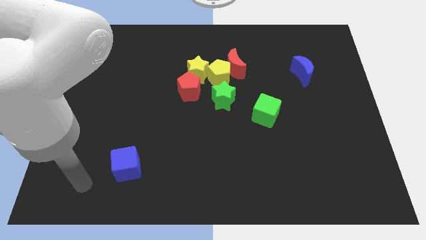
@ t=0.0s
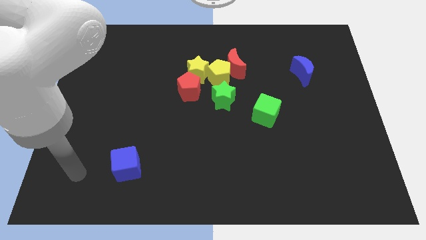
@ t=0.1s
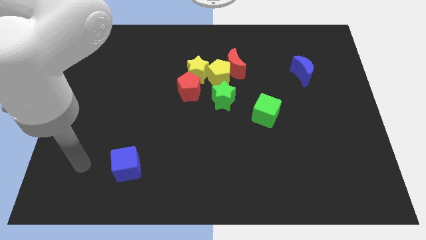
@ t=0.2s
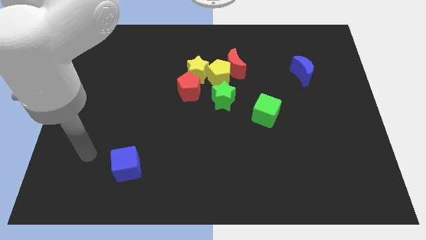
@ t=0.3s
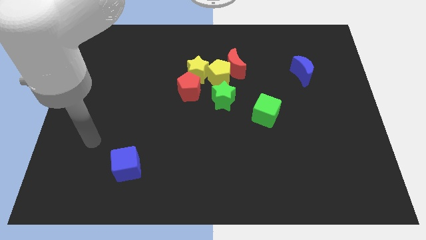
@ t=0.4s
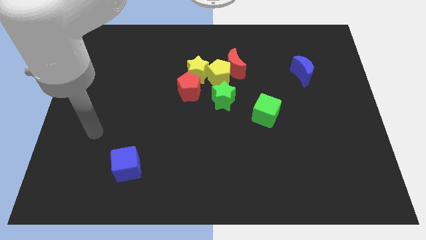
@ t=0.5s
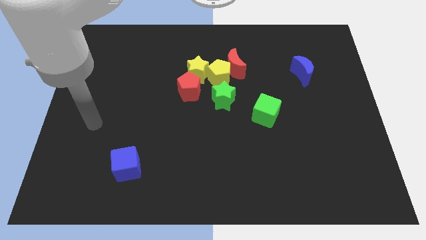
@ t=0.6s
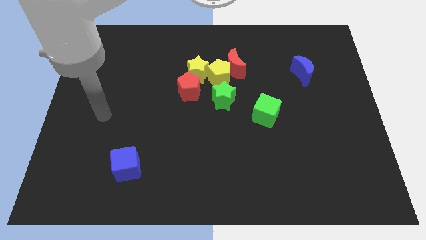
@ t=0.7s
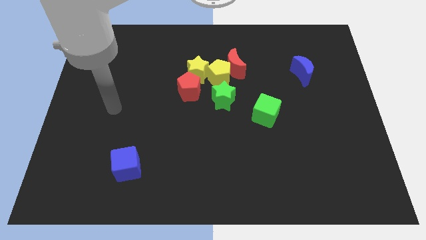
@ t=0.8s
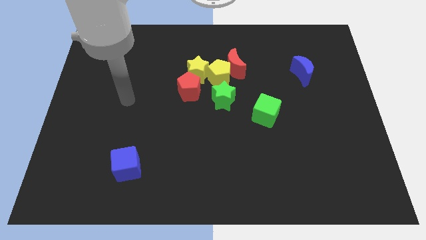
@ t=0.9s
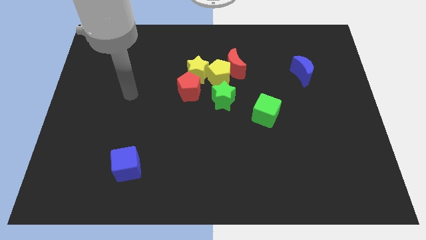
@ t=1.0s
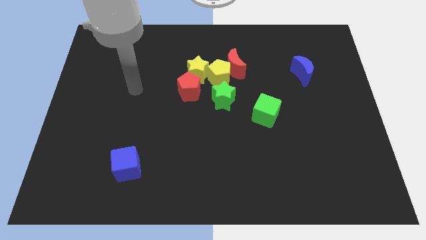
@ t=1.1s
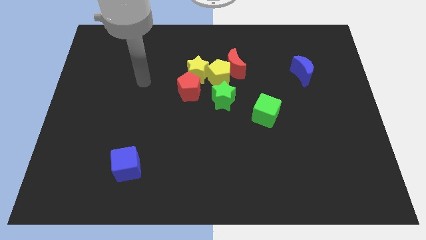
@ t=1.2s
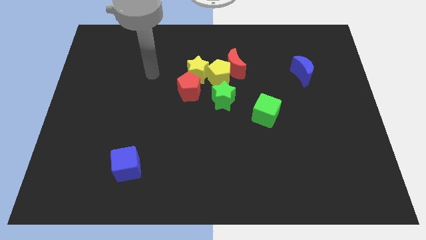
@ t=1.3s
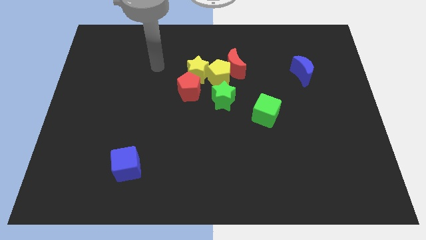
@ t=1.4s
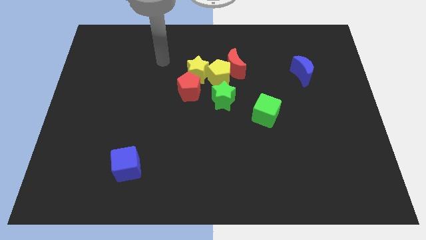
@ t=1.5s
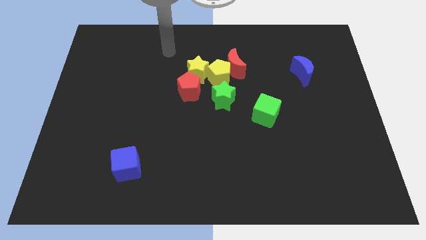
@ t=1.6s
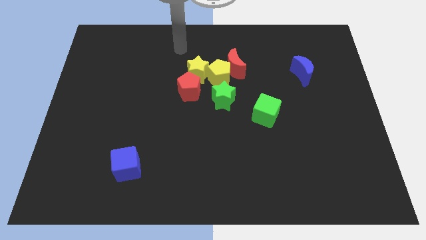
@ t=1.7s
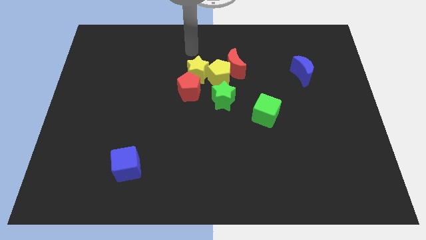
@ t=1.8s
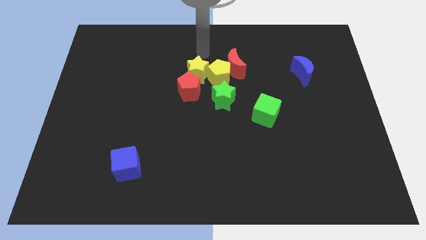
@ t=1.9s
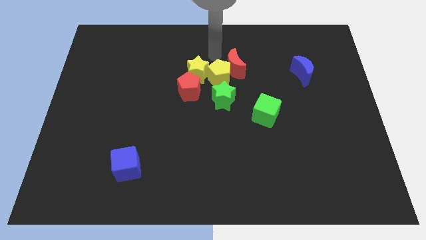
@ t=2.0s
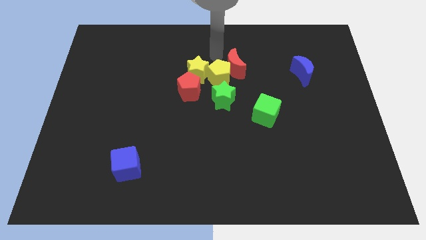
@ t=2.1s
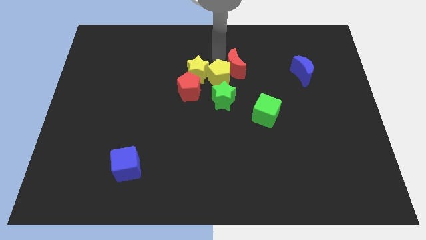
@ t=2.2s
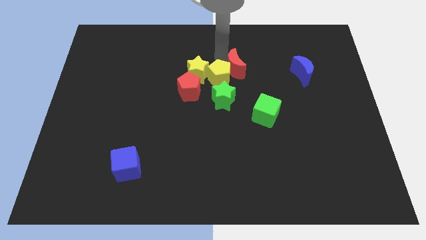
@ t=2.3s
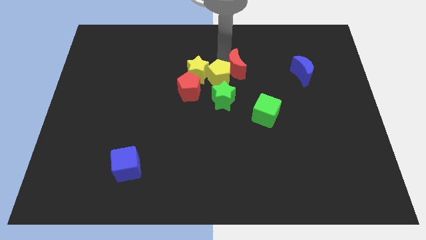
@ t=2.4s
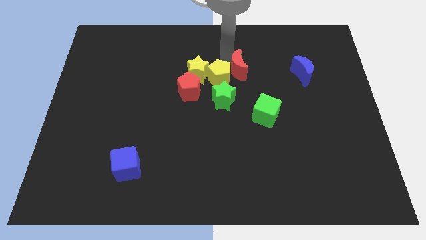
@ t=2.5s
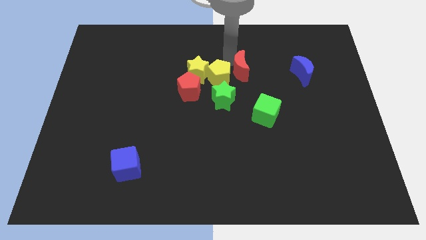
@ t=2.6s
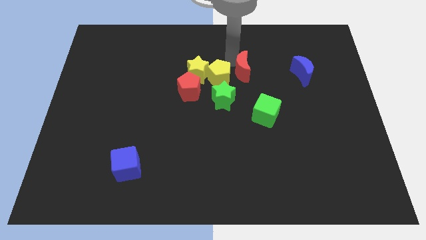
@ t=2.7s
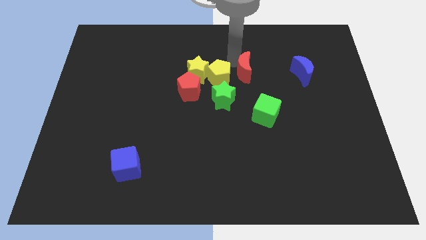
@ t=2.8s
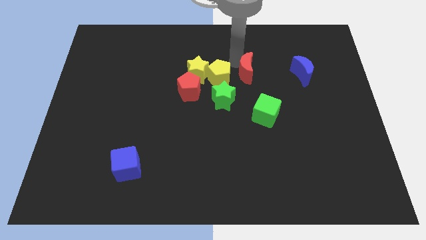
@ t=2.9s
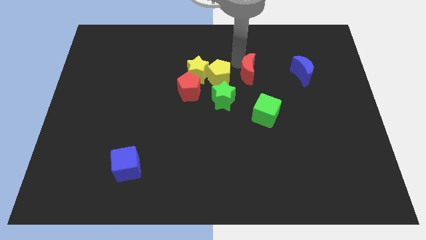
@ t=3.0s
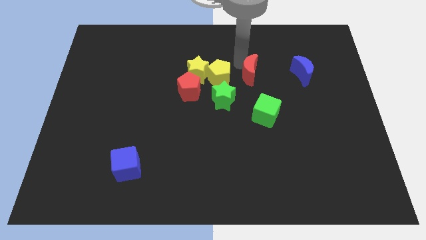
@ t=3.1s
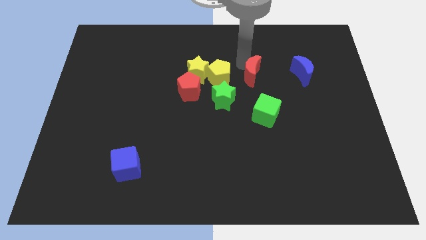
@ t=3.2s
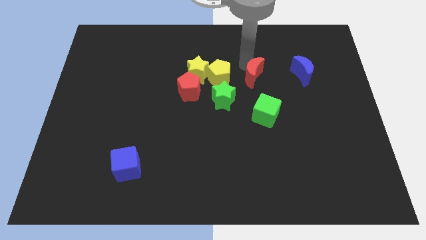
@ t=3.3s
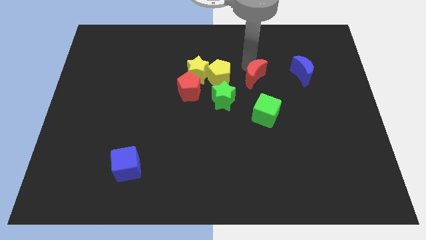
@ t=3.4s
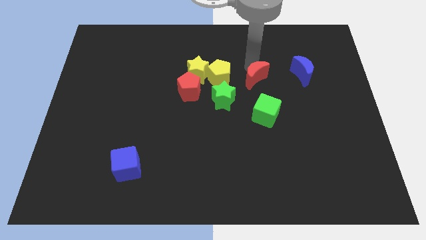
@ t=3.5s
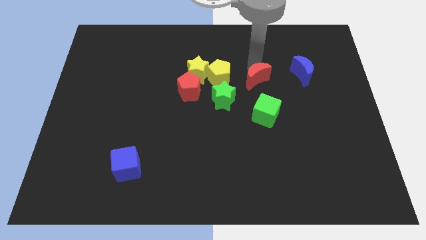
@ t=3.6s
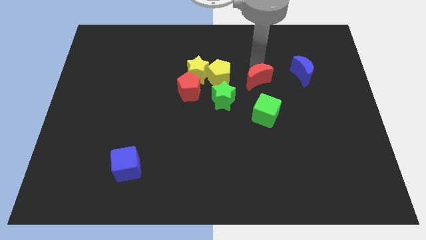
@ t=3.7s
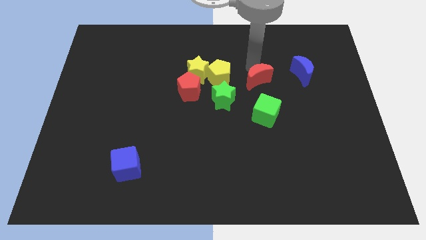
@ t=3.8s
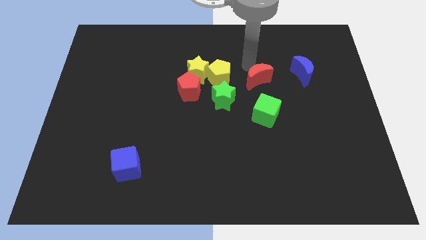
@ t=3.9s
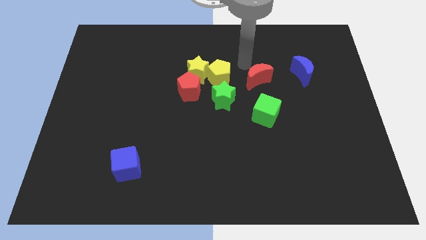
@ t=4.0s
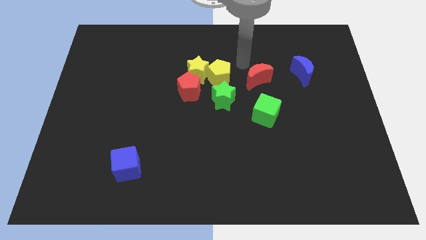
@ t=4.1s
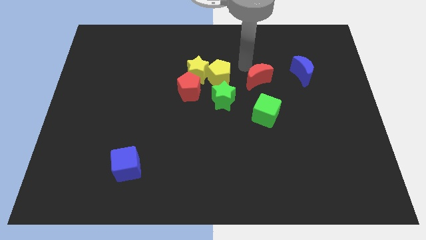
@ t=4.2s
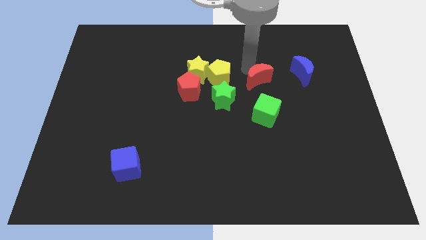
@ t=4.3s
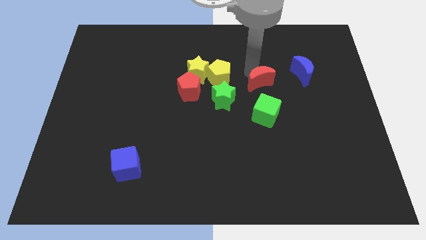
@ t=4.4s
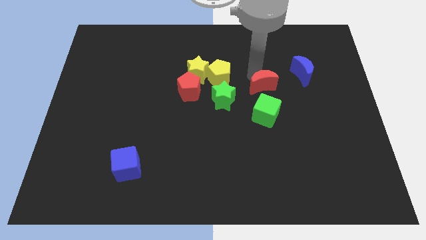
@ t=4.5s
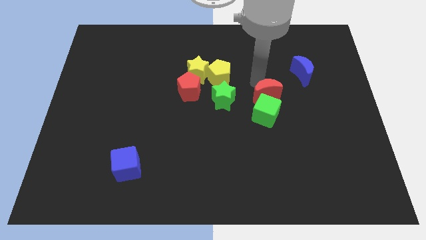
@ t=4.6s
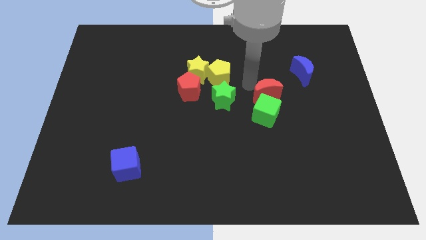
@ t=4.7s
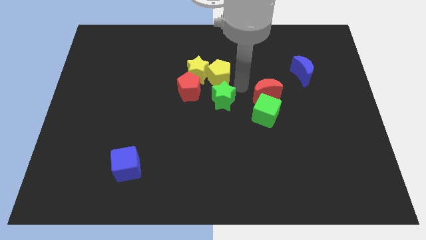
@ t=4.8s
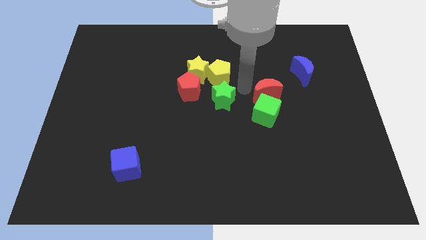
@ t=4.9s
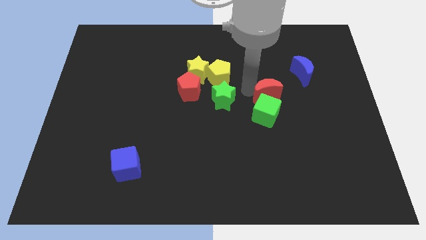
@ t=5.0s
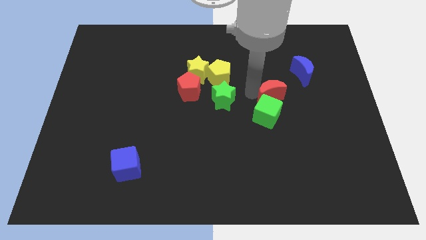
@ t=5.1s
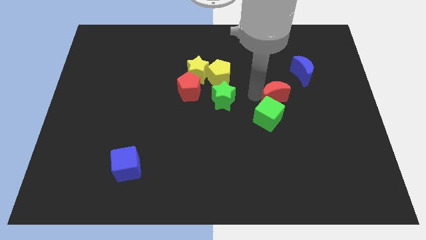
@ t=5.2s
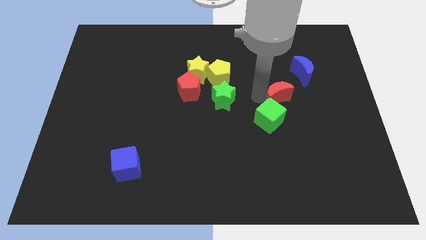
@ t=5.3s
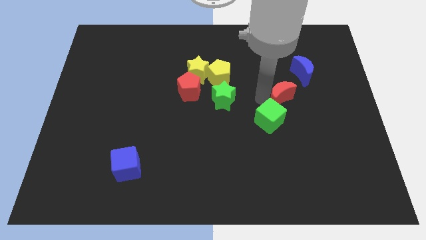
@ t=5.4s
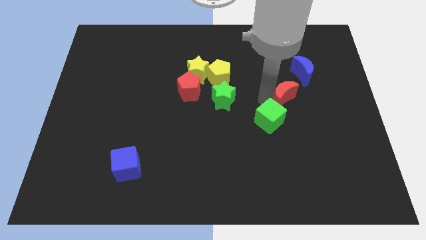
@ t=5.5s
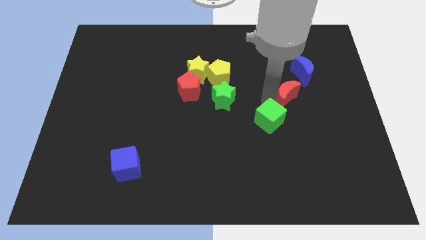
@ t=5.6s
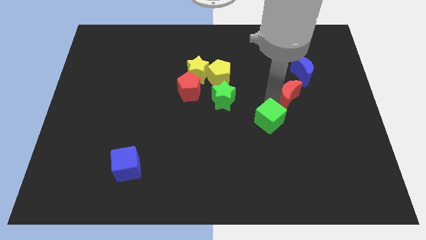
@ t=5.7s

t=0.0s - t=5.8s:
push the red moon below the blue moon
